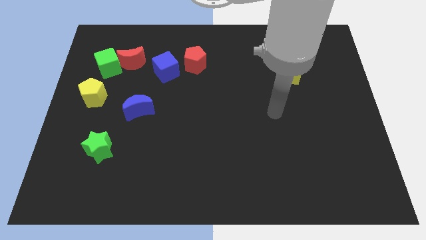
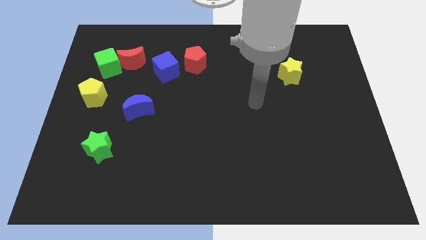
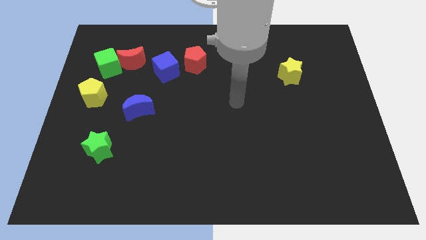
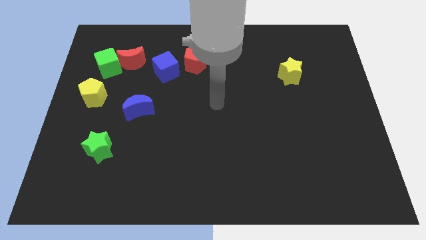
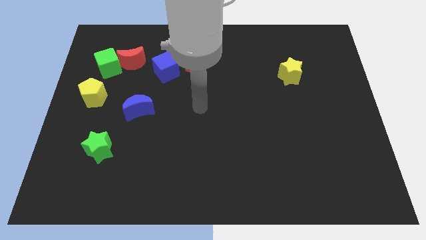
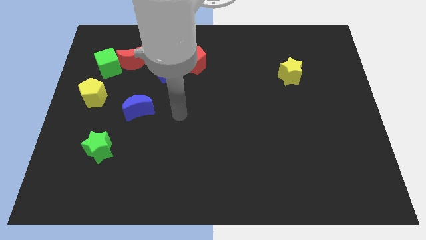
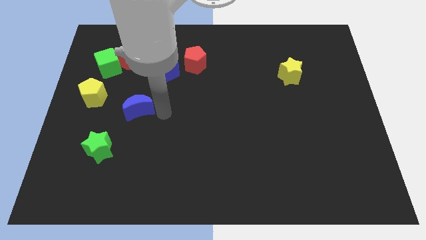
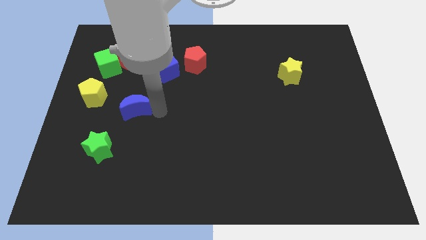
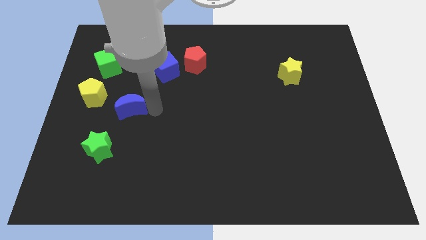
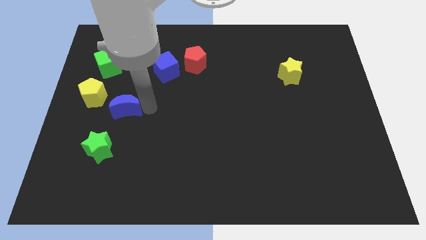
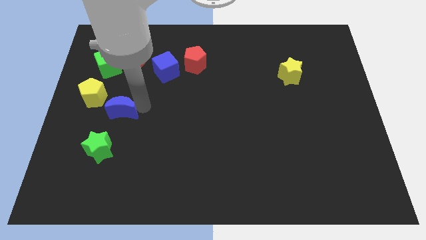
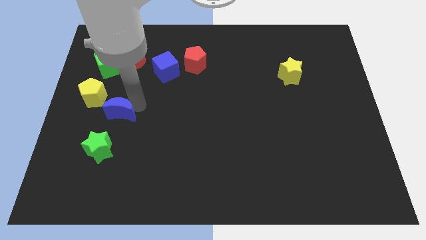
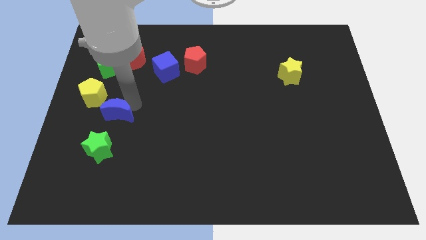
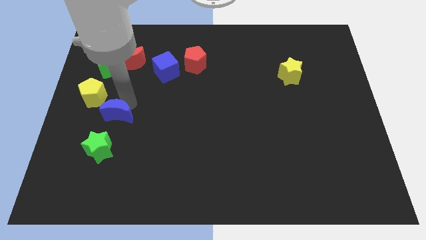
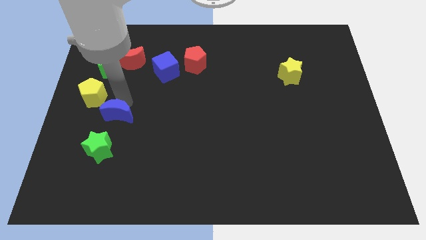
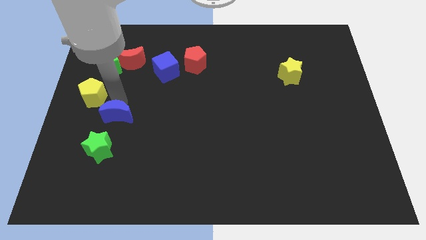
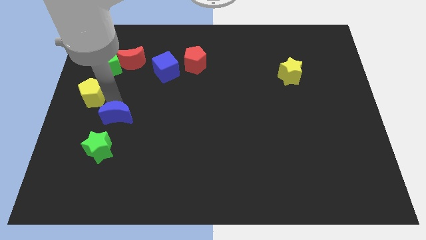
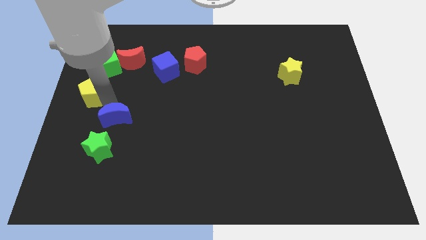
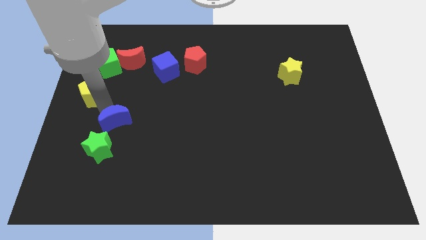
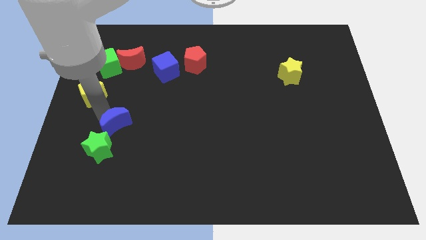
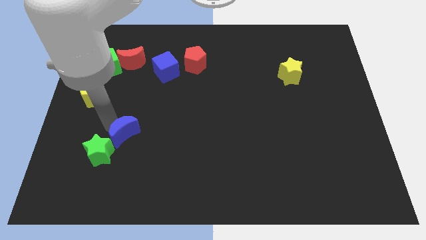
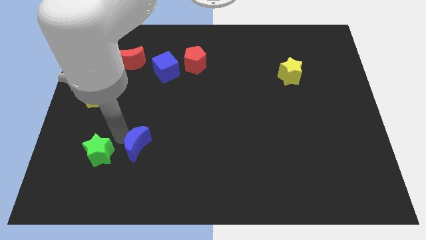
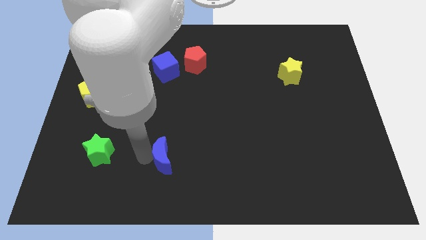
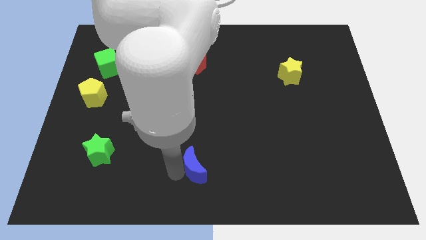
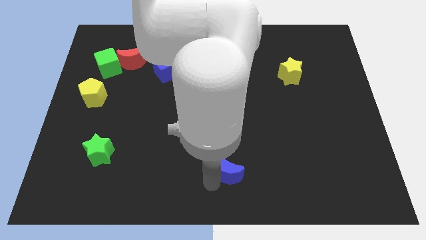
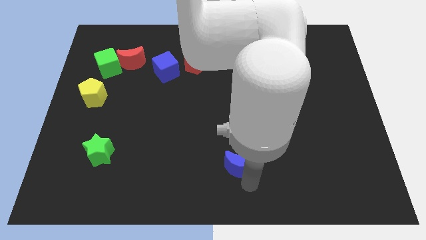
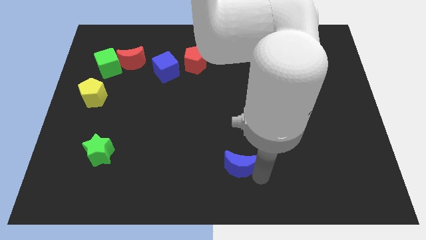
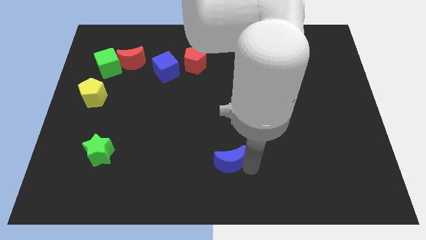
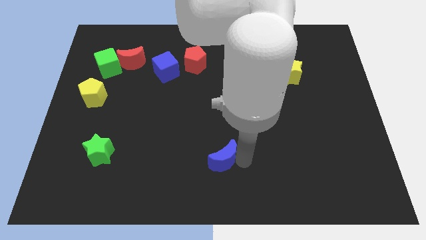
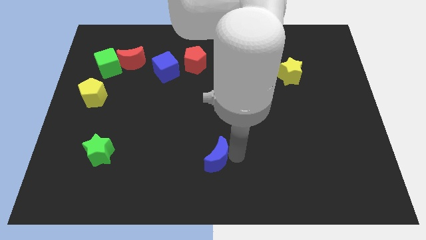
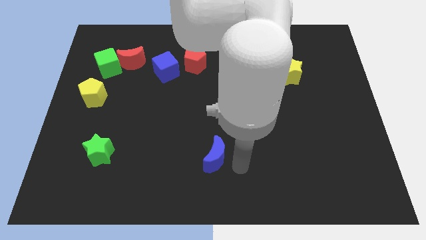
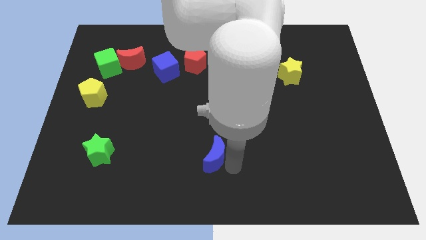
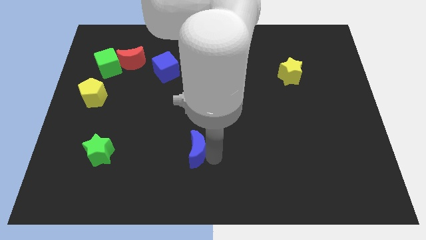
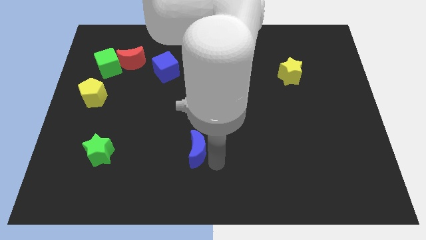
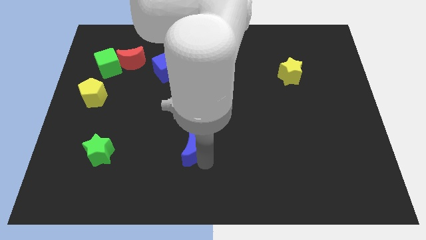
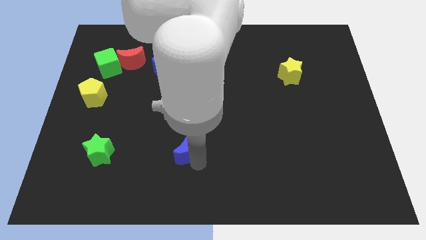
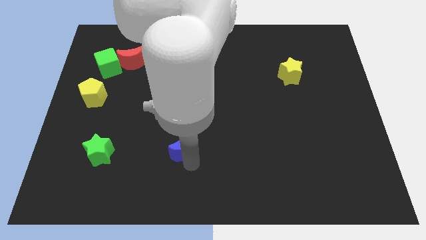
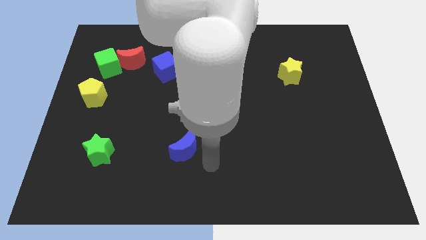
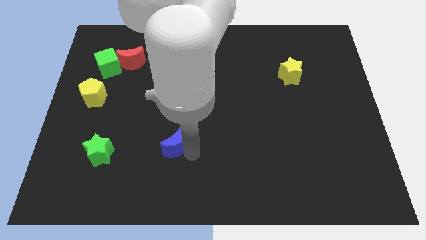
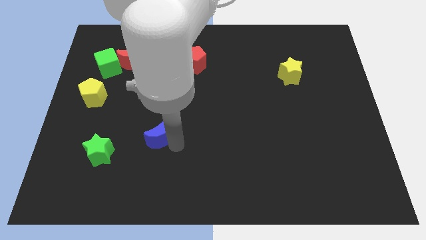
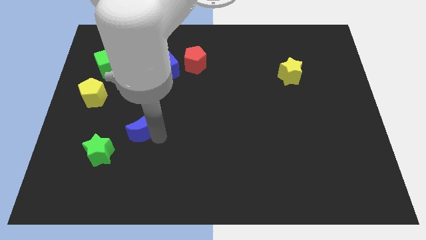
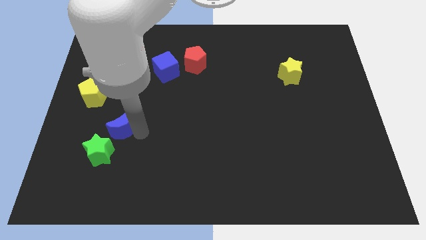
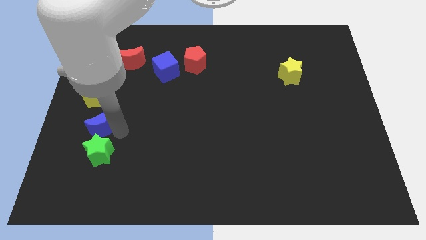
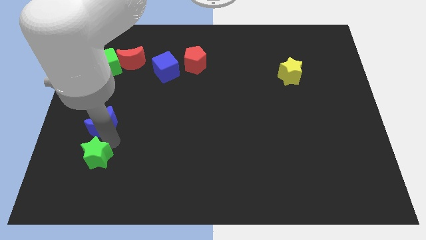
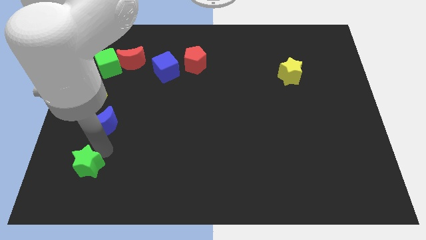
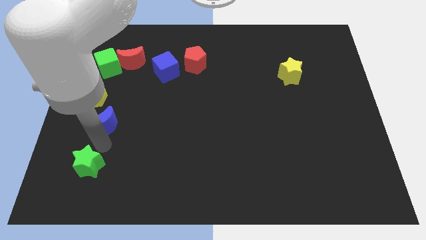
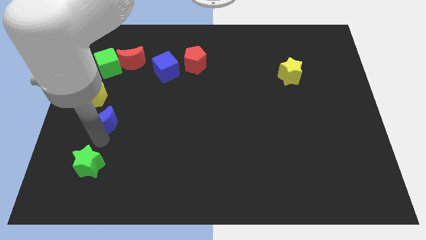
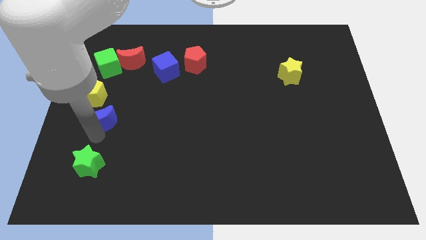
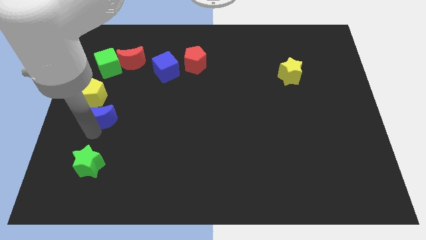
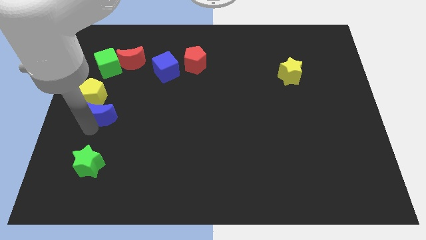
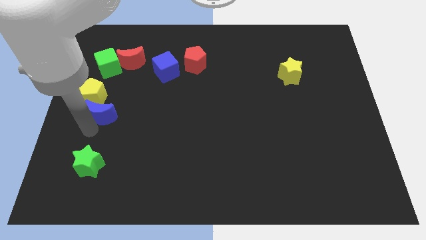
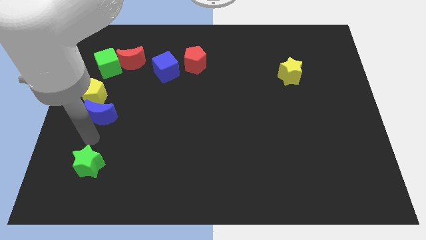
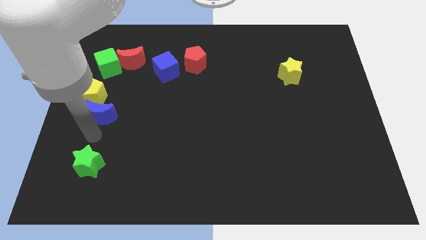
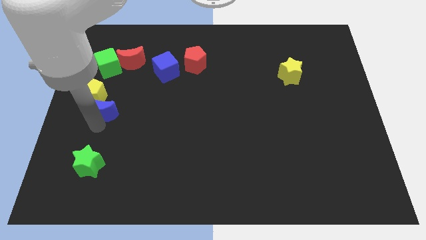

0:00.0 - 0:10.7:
put the blue moon towards the yellow pentagon

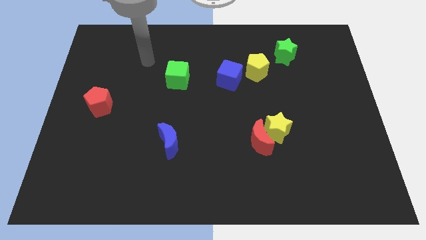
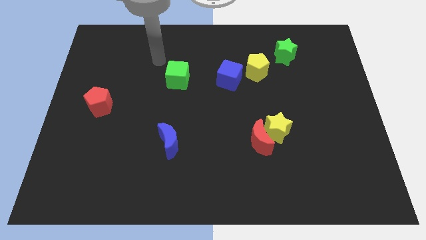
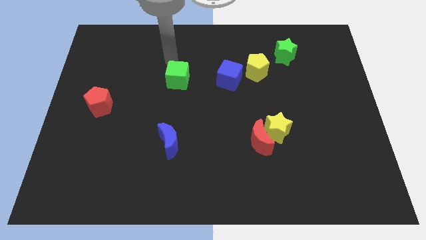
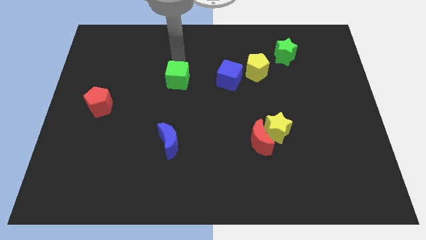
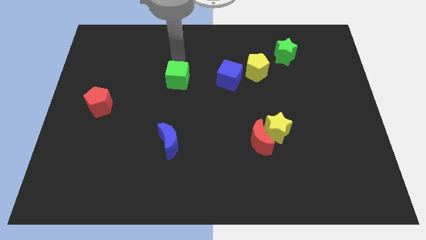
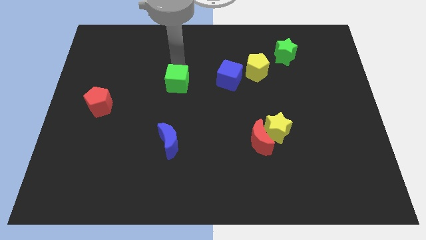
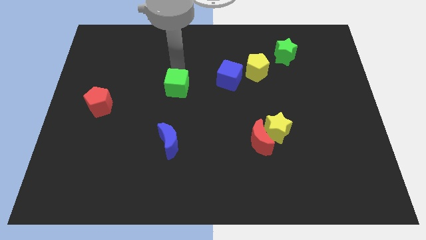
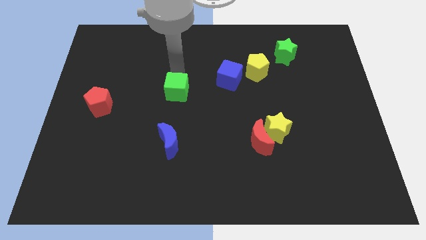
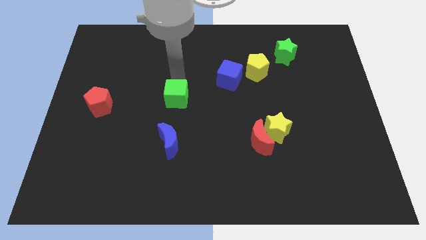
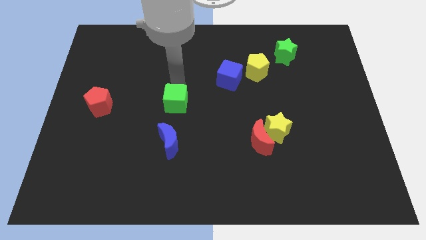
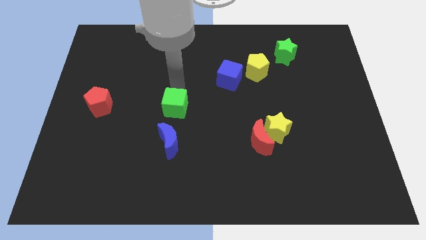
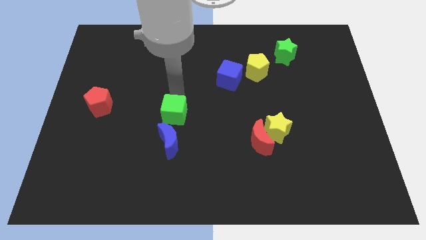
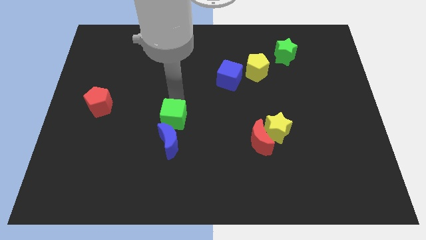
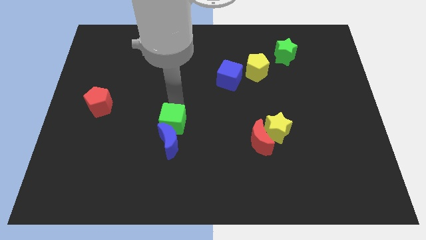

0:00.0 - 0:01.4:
move the green cube towards the blue moon
